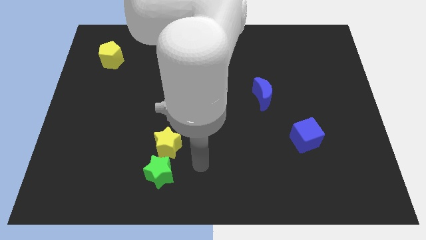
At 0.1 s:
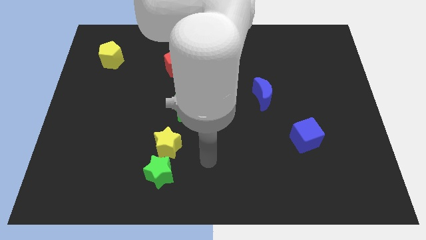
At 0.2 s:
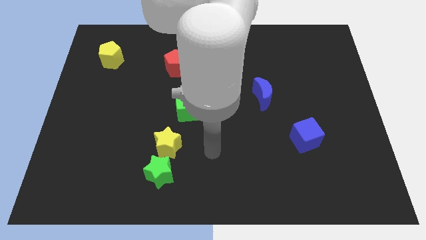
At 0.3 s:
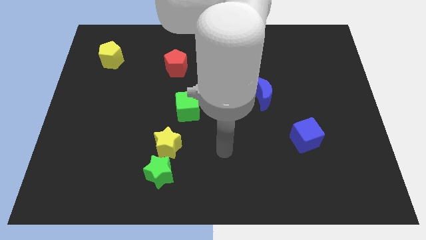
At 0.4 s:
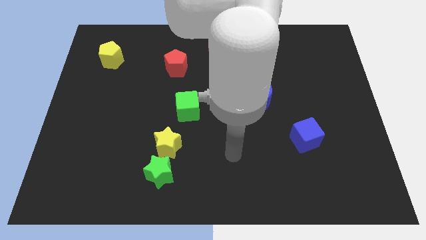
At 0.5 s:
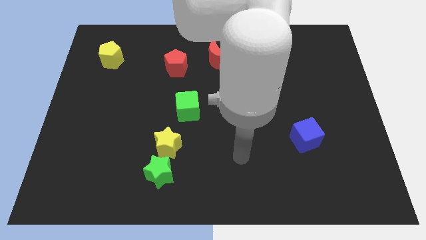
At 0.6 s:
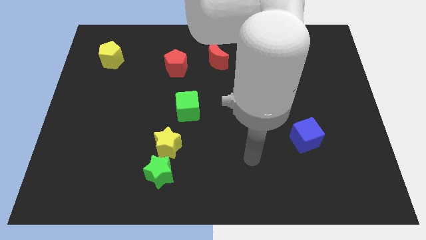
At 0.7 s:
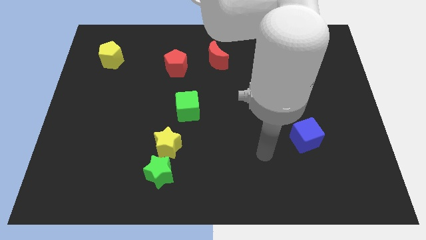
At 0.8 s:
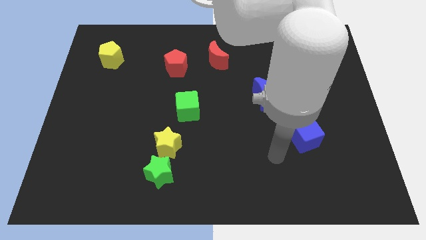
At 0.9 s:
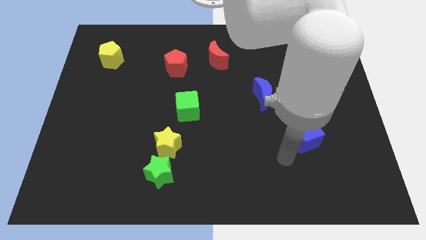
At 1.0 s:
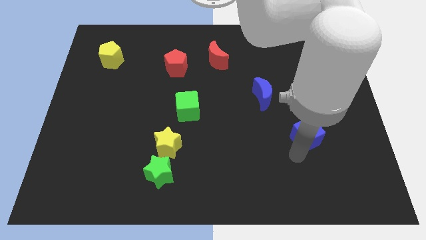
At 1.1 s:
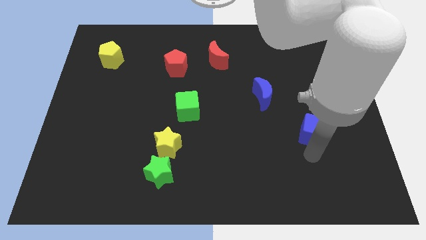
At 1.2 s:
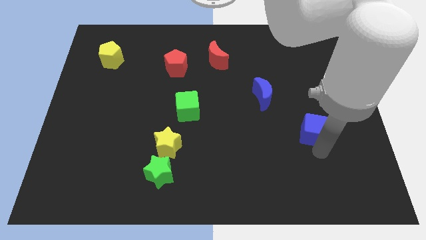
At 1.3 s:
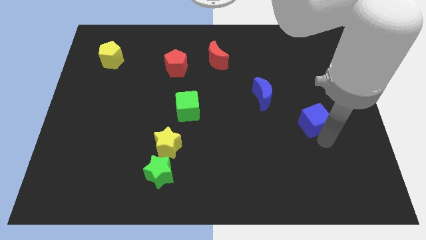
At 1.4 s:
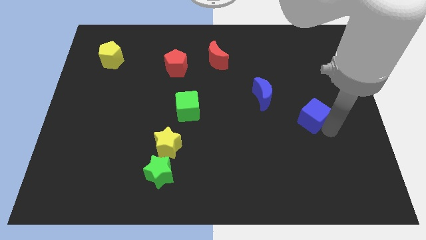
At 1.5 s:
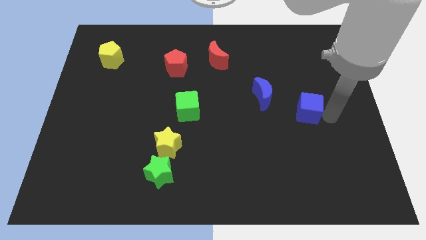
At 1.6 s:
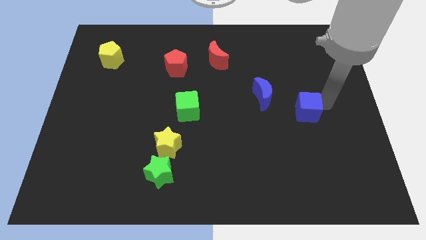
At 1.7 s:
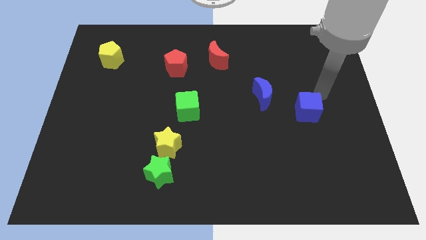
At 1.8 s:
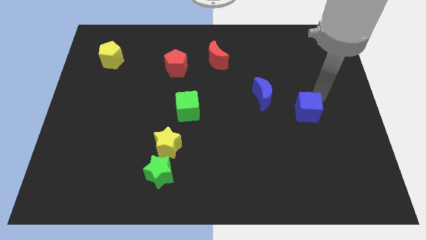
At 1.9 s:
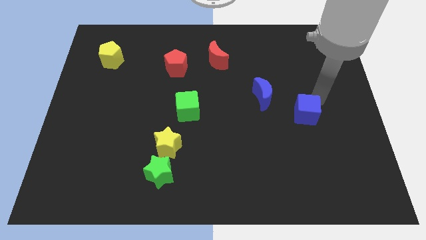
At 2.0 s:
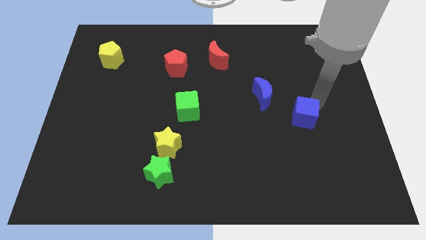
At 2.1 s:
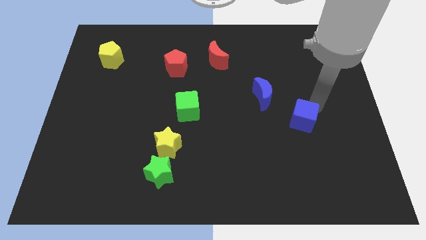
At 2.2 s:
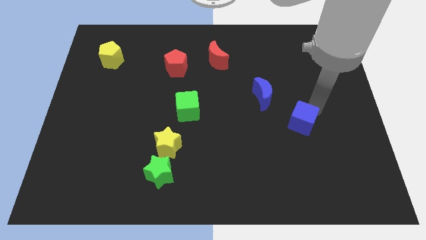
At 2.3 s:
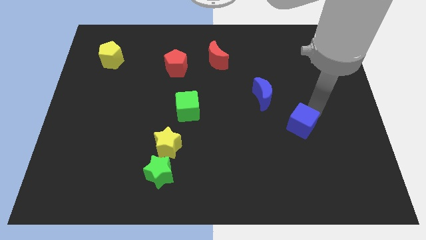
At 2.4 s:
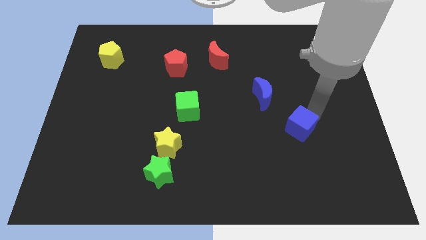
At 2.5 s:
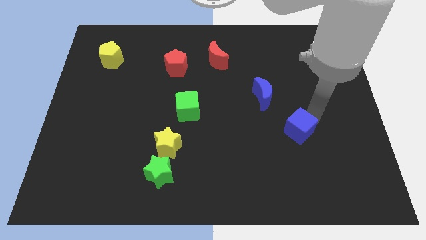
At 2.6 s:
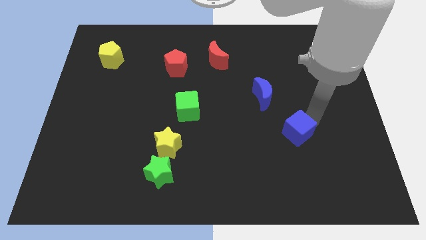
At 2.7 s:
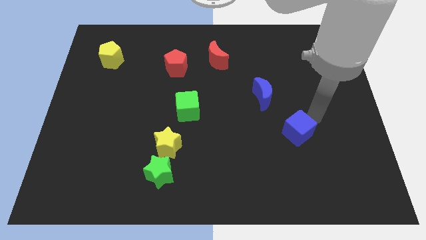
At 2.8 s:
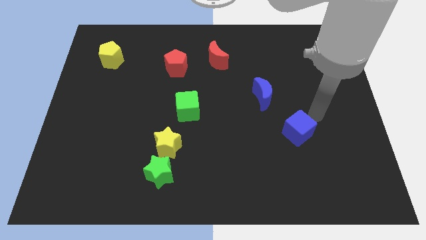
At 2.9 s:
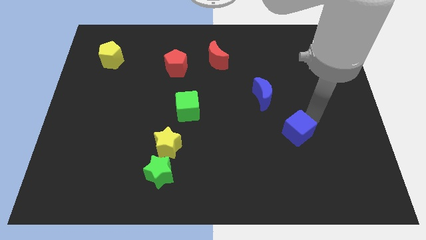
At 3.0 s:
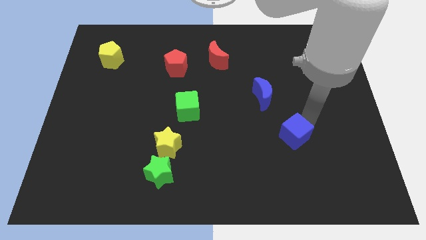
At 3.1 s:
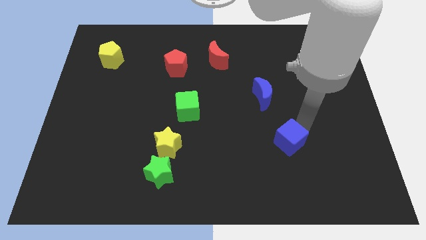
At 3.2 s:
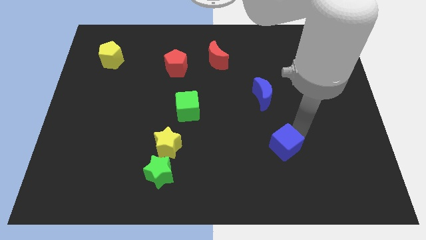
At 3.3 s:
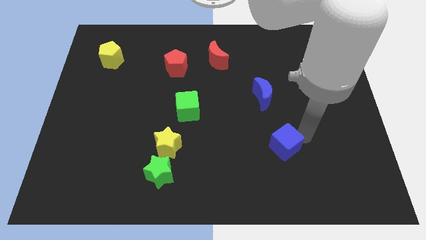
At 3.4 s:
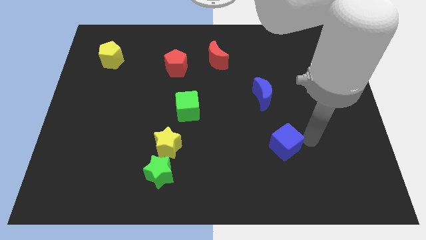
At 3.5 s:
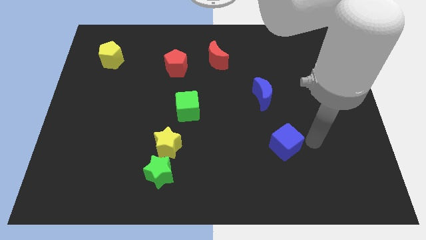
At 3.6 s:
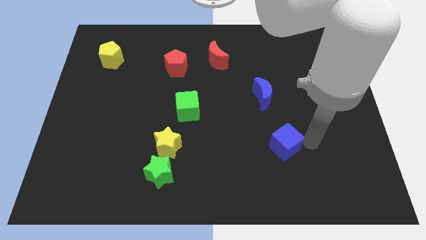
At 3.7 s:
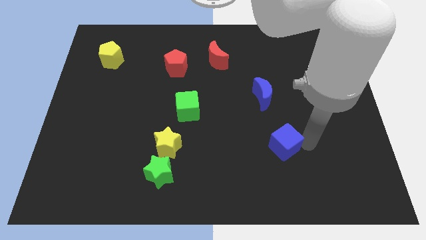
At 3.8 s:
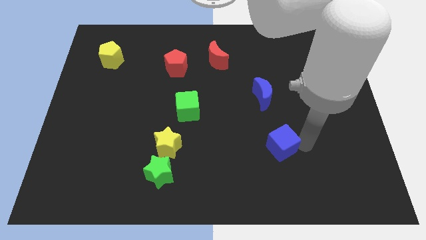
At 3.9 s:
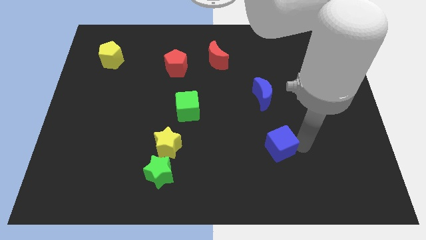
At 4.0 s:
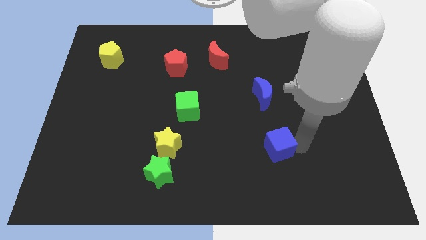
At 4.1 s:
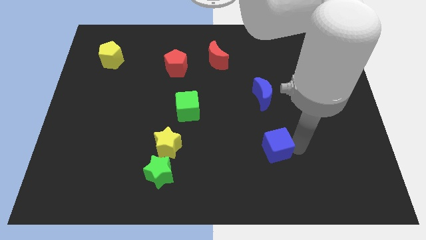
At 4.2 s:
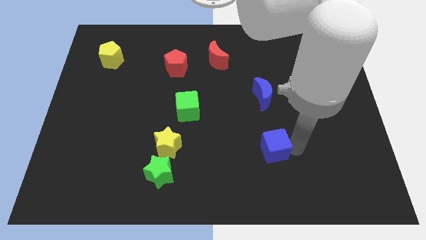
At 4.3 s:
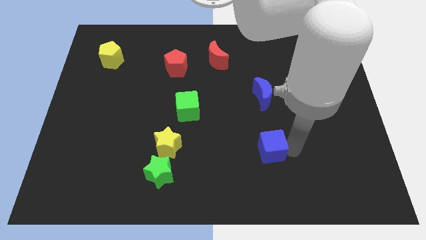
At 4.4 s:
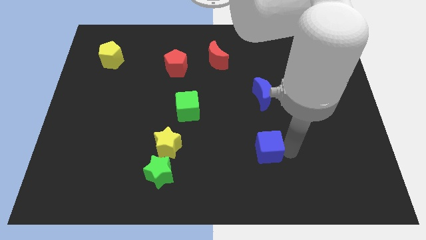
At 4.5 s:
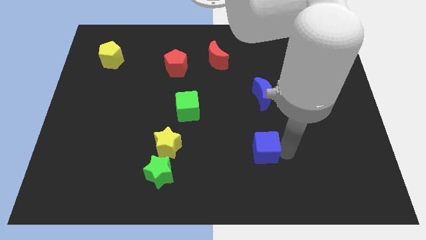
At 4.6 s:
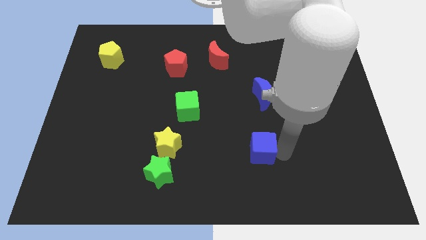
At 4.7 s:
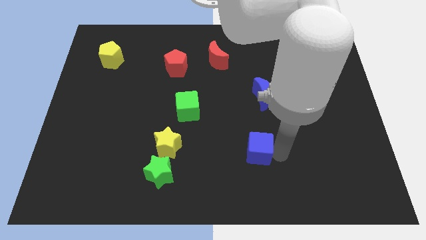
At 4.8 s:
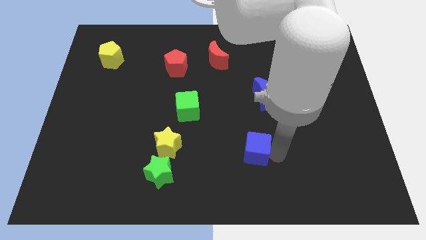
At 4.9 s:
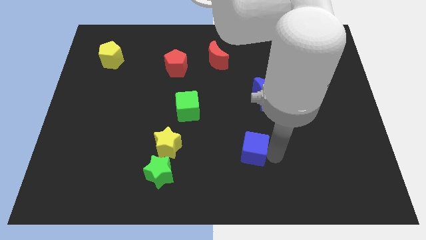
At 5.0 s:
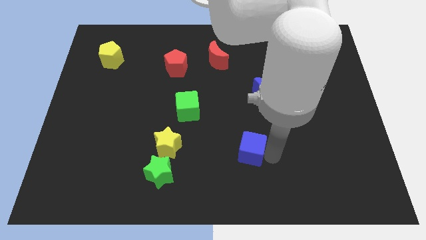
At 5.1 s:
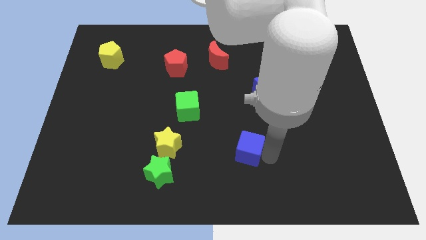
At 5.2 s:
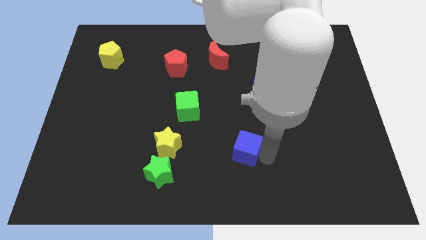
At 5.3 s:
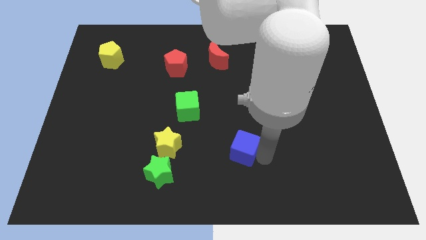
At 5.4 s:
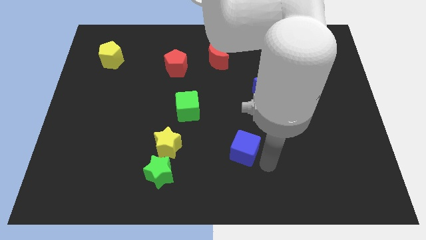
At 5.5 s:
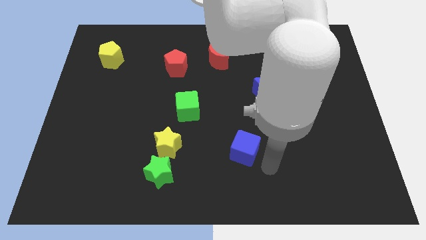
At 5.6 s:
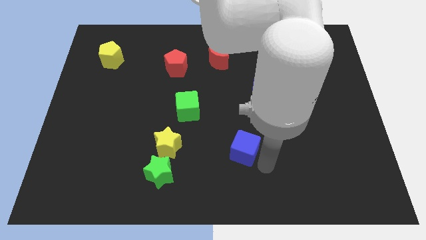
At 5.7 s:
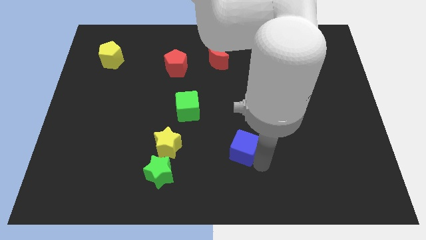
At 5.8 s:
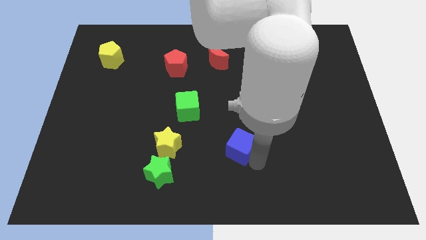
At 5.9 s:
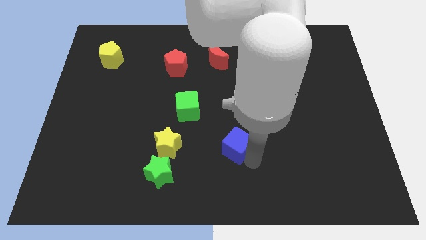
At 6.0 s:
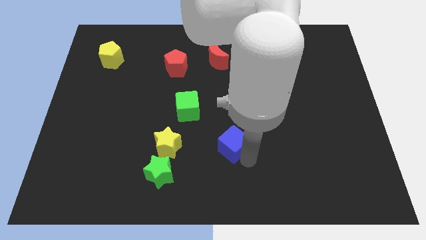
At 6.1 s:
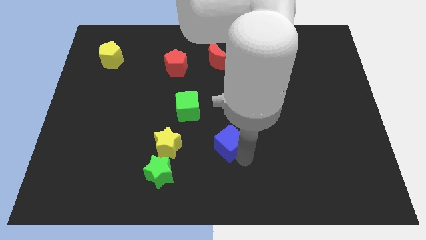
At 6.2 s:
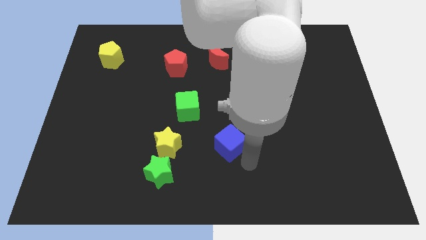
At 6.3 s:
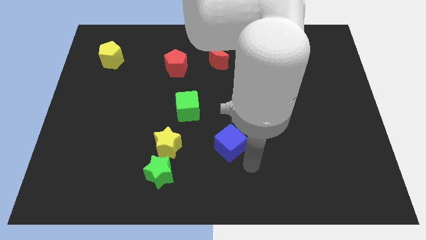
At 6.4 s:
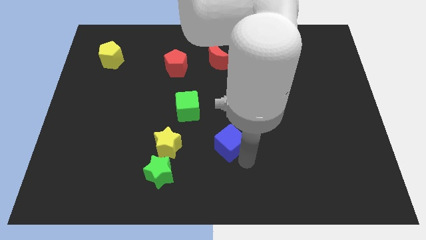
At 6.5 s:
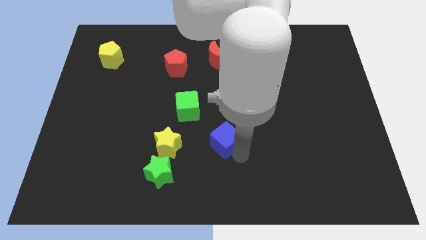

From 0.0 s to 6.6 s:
push the blue cube diagonally down and to the right of the green cube

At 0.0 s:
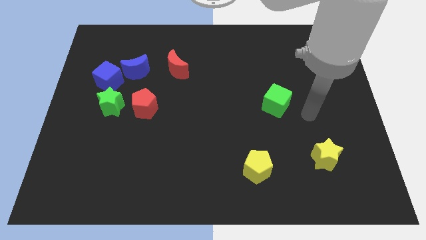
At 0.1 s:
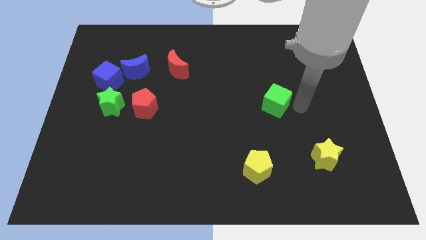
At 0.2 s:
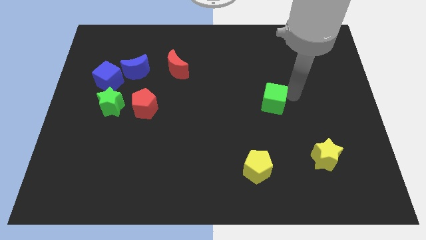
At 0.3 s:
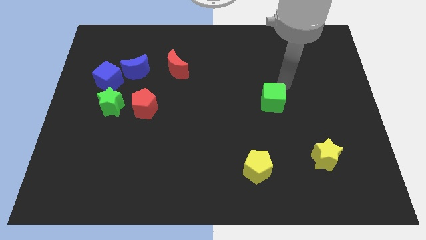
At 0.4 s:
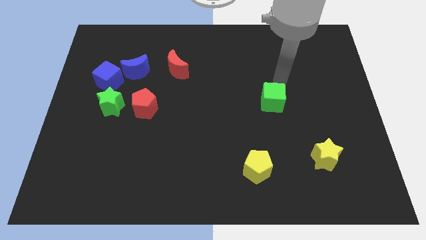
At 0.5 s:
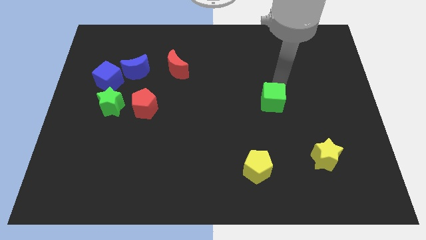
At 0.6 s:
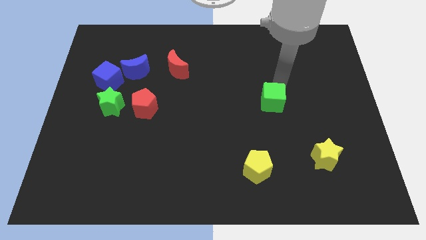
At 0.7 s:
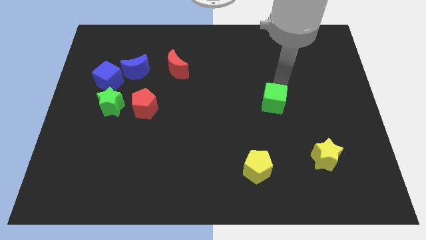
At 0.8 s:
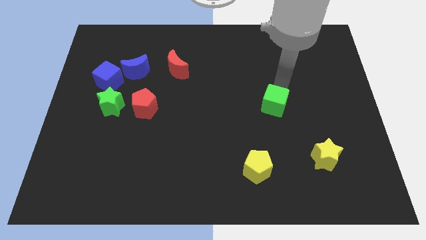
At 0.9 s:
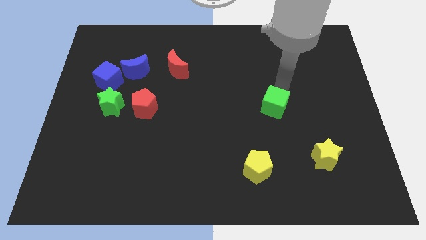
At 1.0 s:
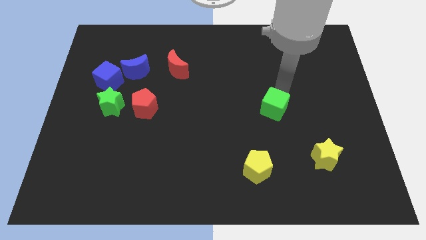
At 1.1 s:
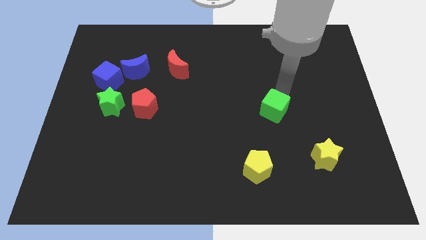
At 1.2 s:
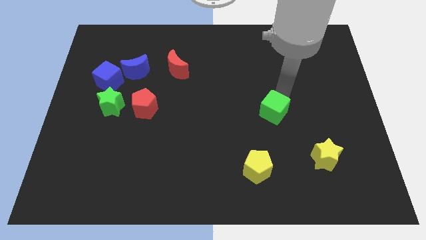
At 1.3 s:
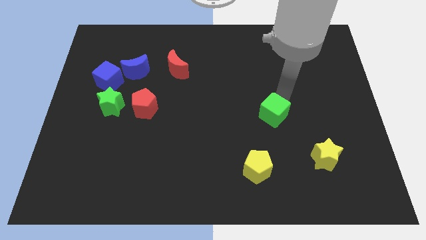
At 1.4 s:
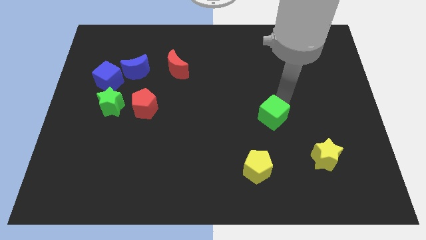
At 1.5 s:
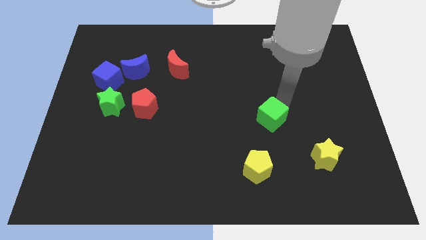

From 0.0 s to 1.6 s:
move the green cube to the top side of the yellow pentagon
